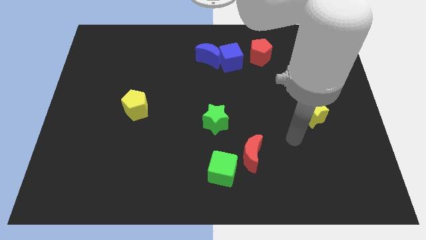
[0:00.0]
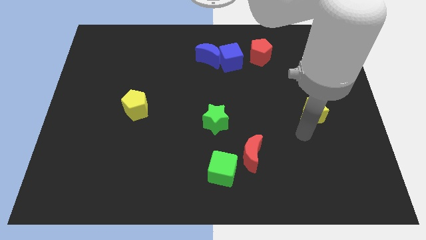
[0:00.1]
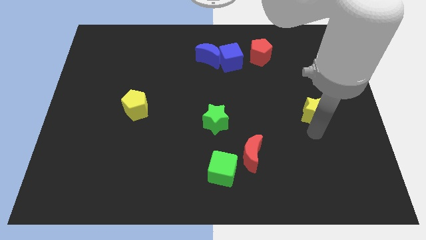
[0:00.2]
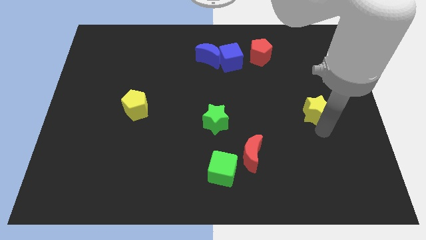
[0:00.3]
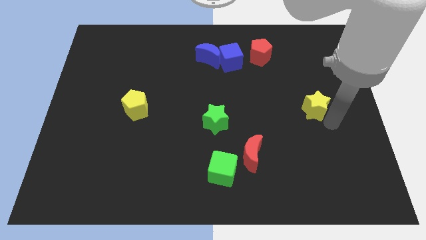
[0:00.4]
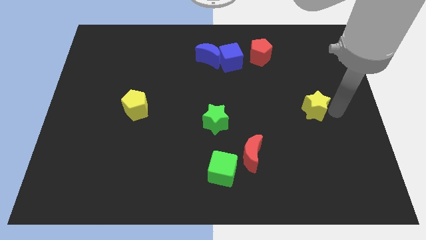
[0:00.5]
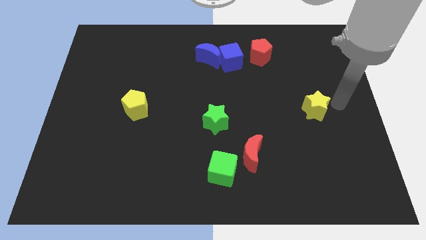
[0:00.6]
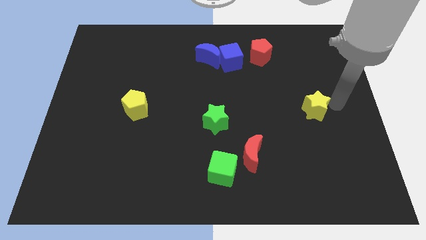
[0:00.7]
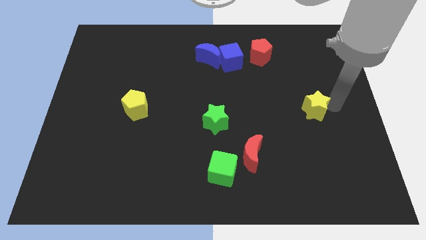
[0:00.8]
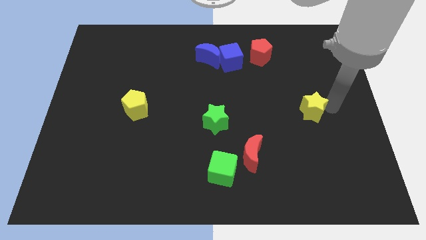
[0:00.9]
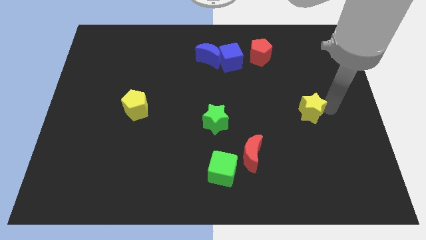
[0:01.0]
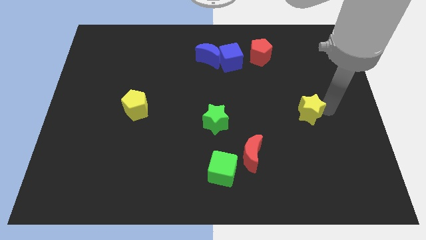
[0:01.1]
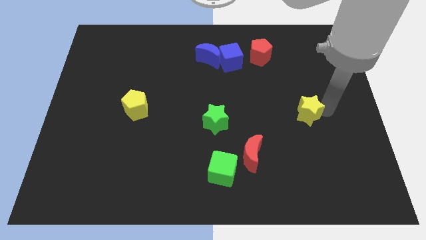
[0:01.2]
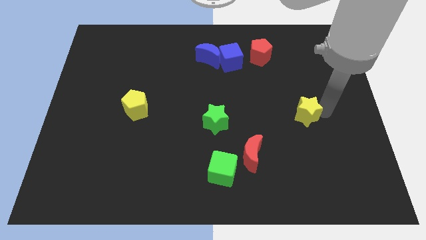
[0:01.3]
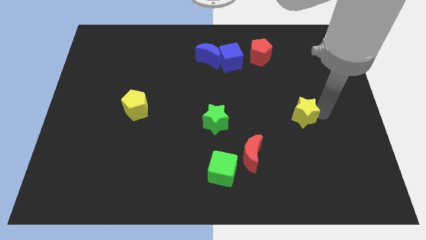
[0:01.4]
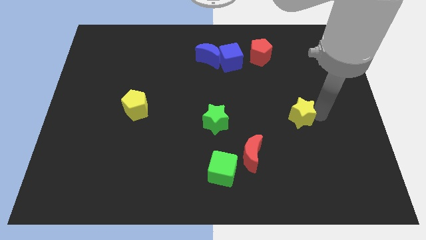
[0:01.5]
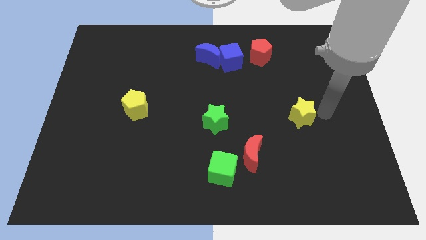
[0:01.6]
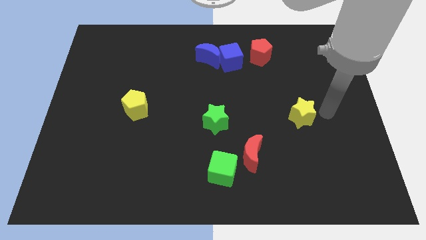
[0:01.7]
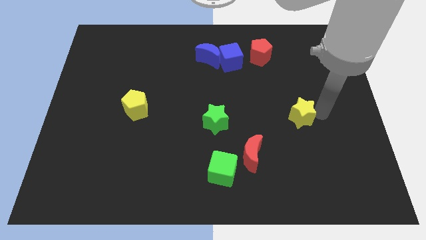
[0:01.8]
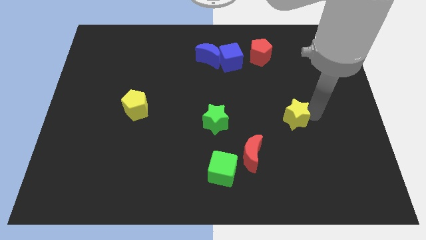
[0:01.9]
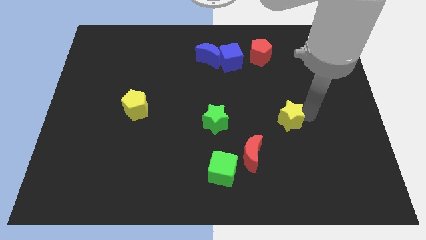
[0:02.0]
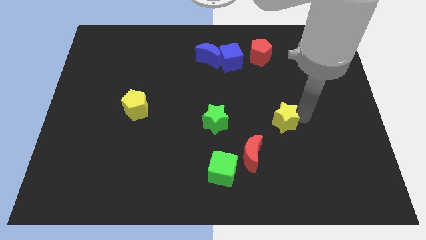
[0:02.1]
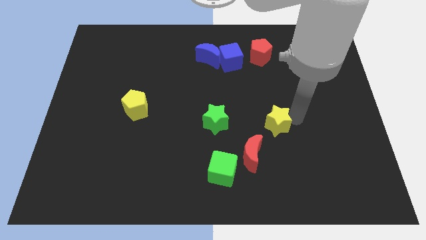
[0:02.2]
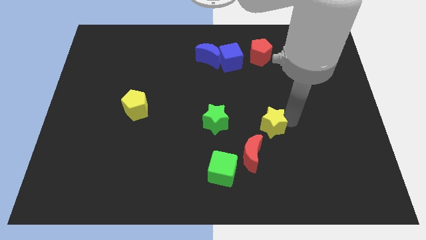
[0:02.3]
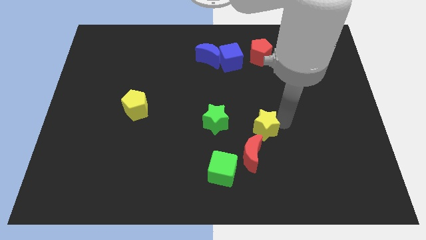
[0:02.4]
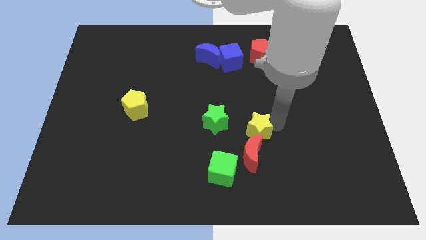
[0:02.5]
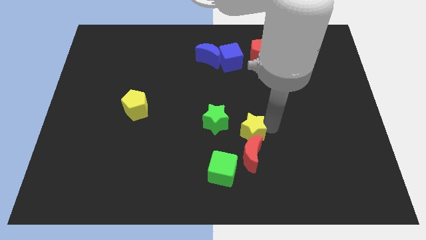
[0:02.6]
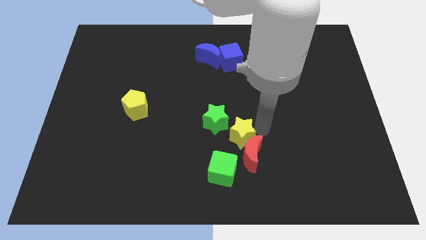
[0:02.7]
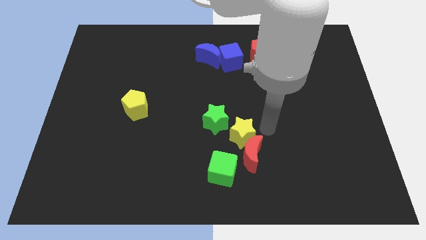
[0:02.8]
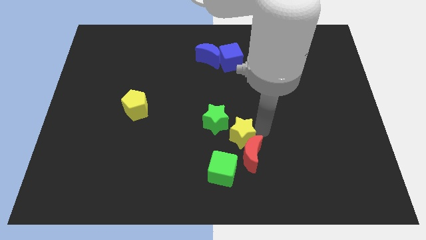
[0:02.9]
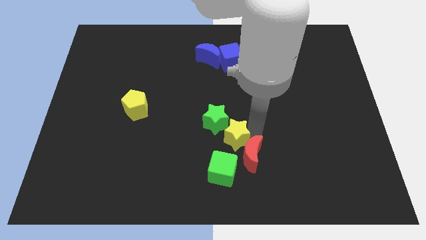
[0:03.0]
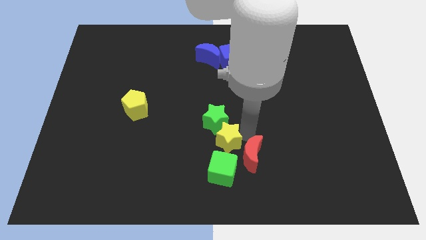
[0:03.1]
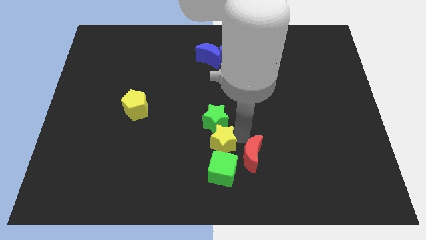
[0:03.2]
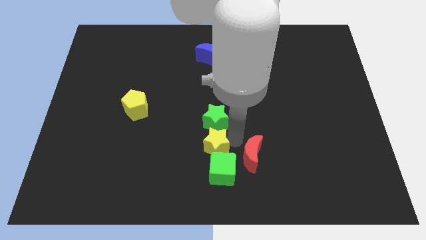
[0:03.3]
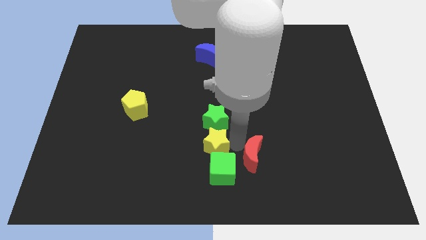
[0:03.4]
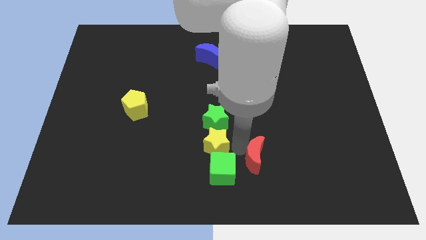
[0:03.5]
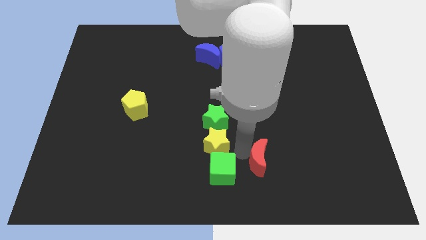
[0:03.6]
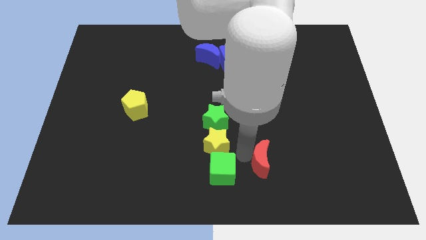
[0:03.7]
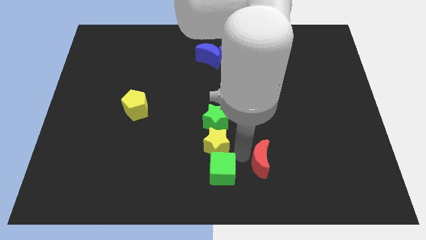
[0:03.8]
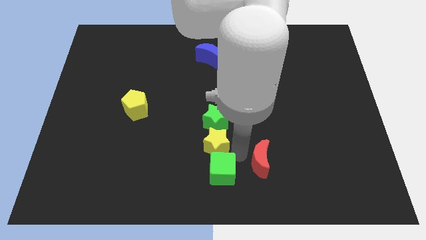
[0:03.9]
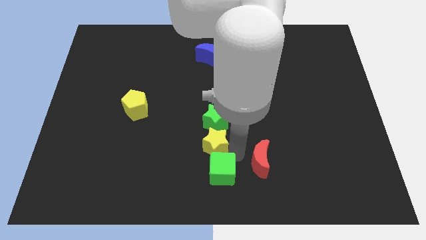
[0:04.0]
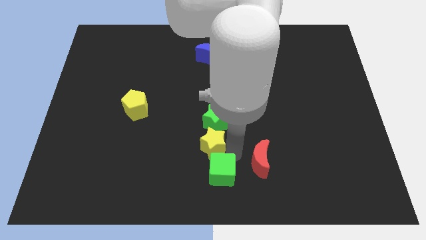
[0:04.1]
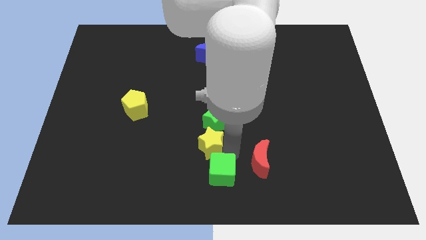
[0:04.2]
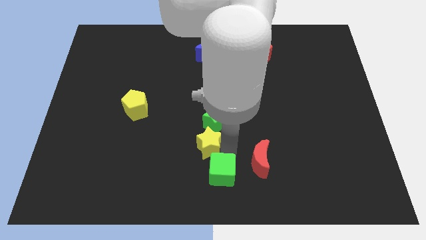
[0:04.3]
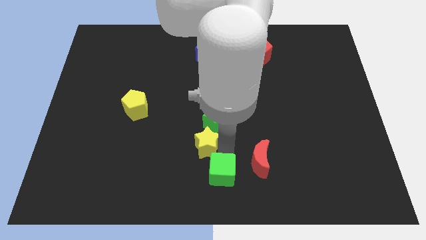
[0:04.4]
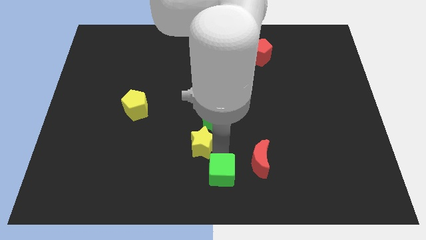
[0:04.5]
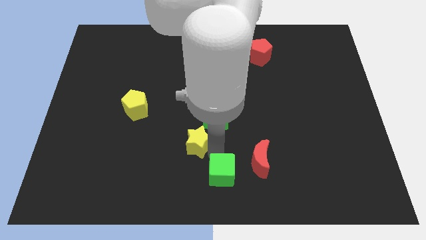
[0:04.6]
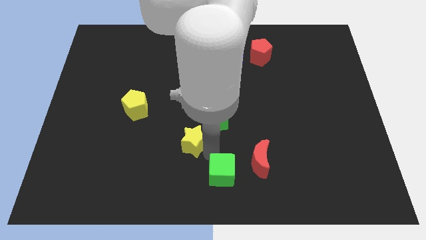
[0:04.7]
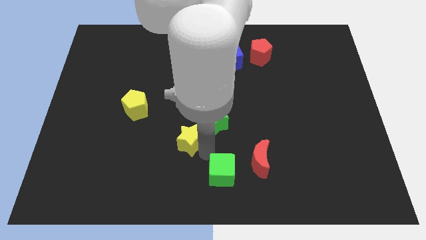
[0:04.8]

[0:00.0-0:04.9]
slide the yellow star left of the green star

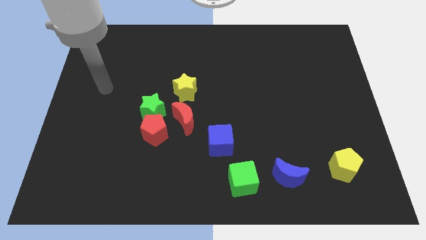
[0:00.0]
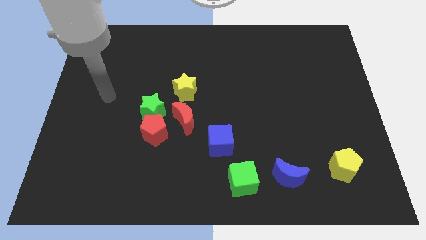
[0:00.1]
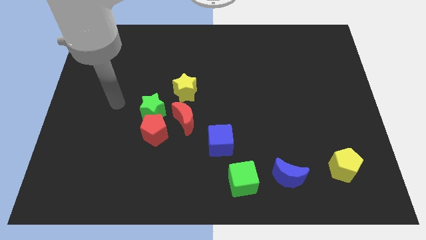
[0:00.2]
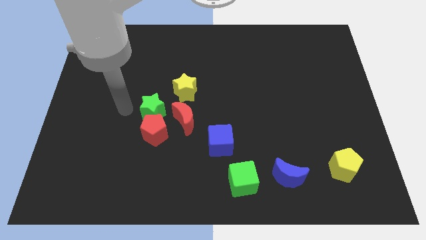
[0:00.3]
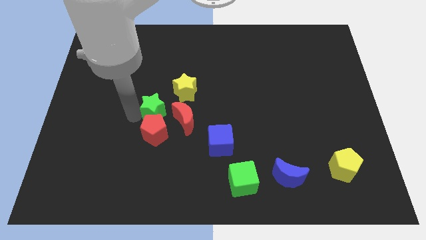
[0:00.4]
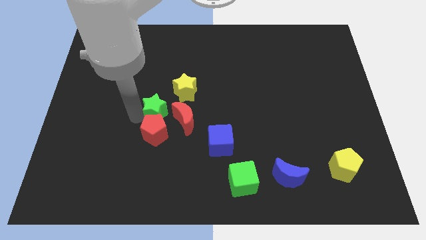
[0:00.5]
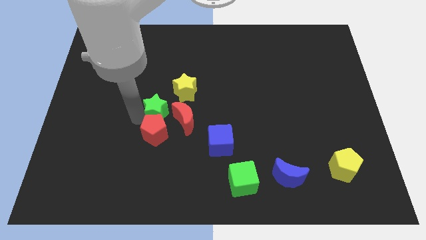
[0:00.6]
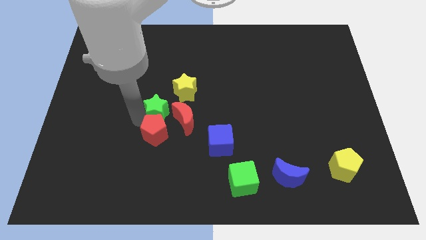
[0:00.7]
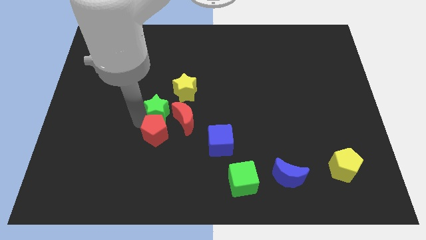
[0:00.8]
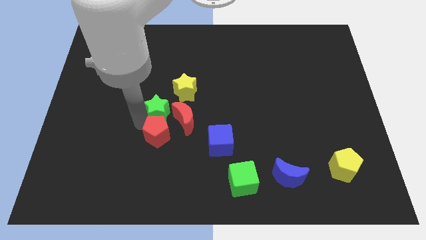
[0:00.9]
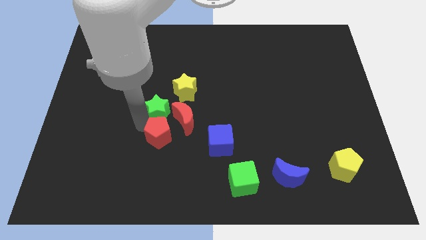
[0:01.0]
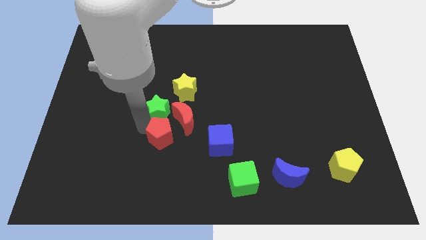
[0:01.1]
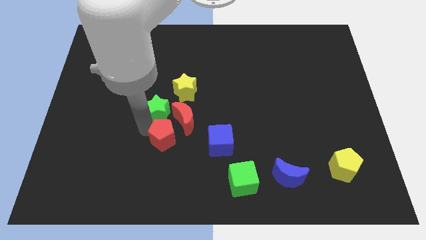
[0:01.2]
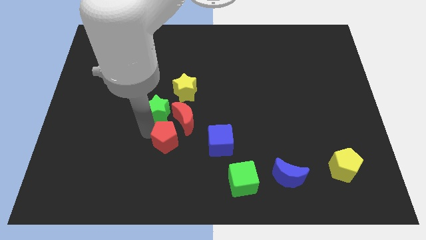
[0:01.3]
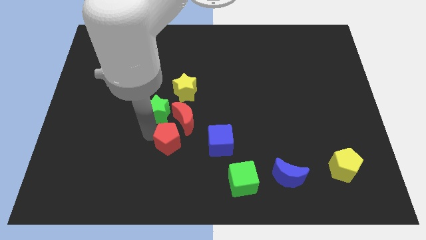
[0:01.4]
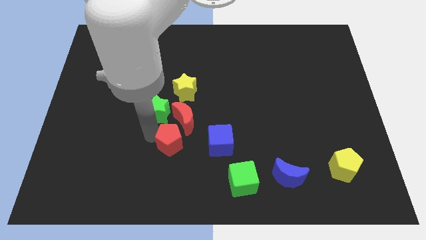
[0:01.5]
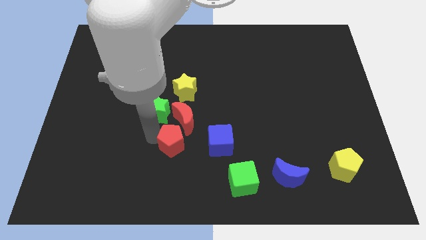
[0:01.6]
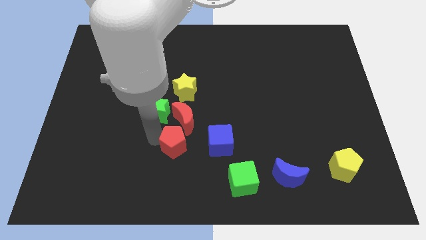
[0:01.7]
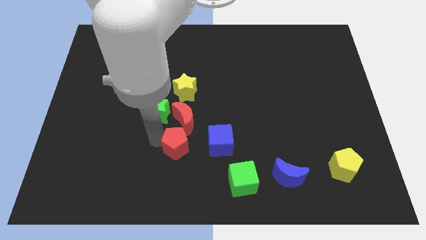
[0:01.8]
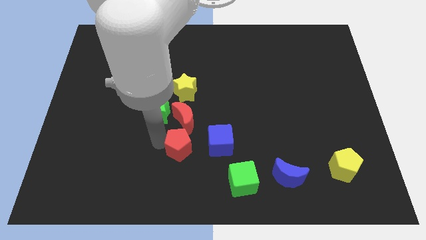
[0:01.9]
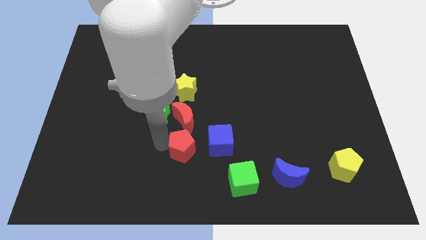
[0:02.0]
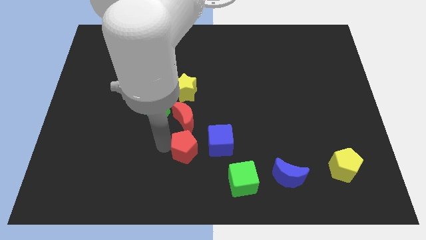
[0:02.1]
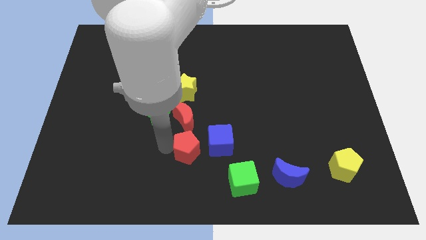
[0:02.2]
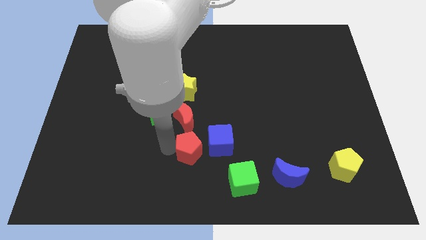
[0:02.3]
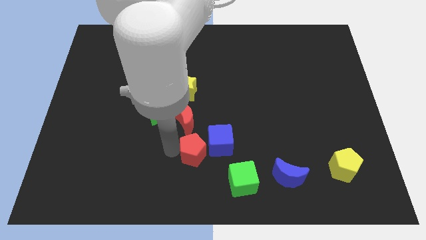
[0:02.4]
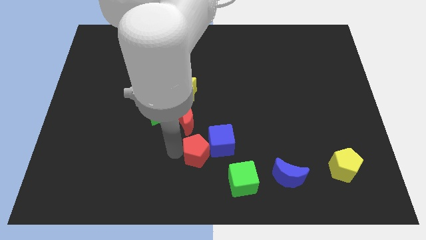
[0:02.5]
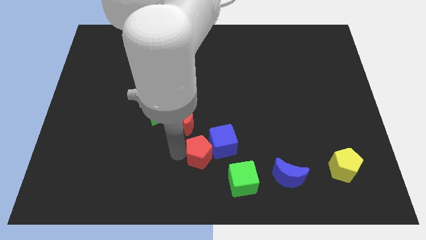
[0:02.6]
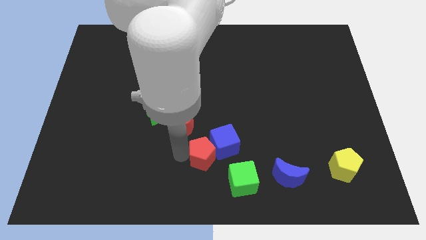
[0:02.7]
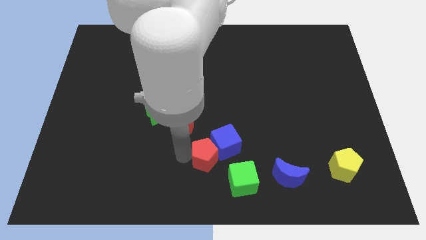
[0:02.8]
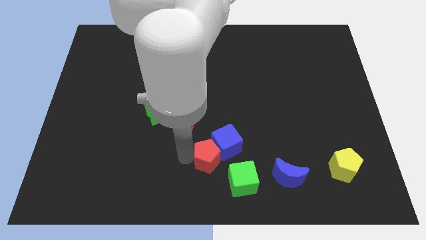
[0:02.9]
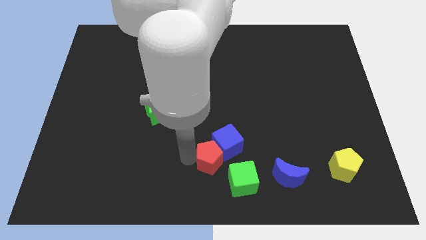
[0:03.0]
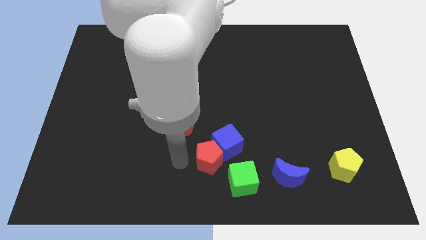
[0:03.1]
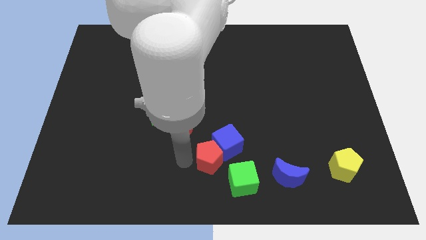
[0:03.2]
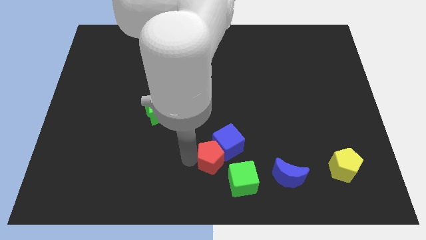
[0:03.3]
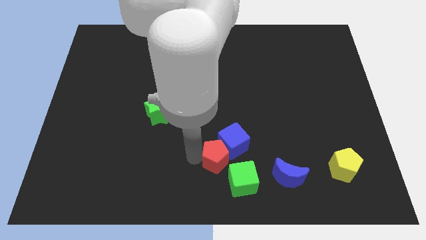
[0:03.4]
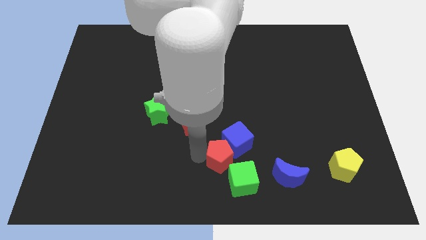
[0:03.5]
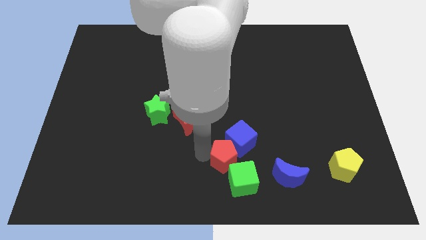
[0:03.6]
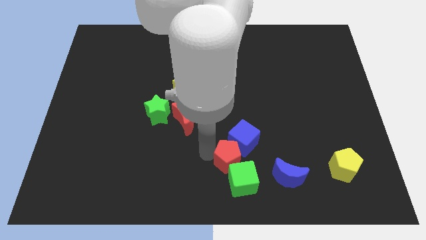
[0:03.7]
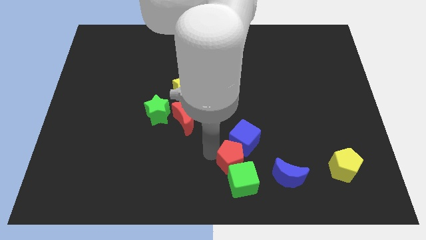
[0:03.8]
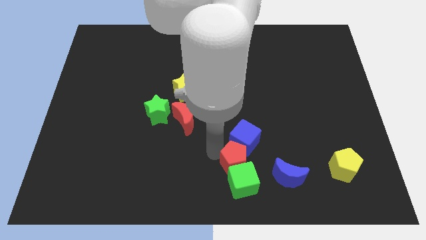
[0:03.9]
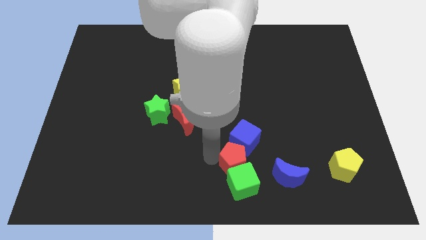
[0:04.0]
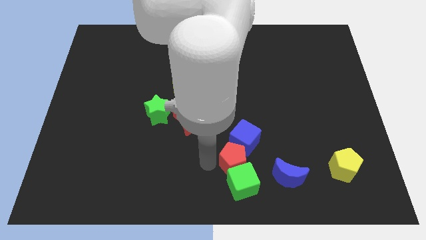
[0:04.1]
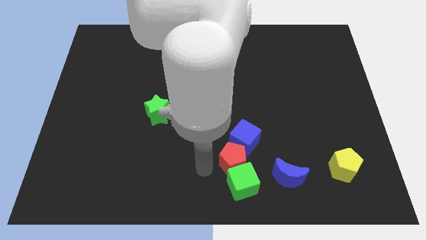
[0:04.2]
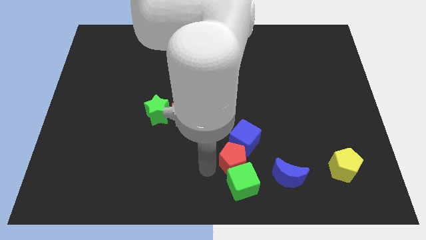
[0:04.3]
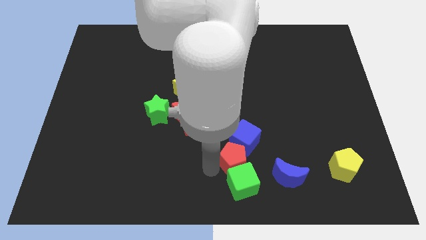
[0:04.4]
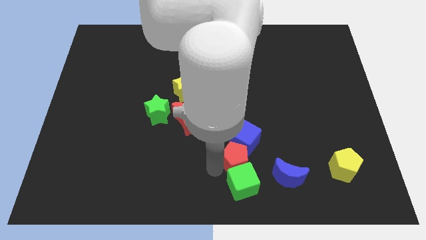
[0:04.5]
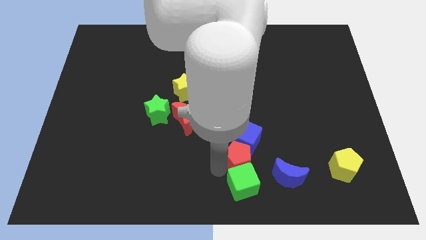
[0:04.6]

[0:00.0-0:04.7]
push the red pentagon diagonally up and to the left of the blue moon
